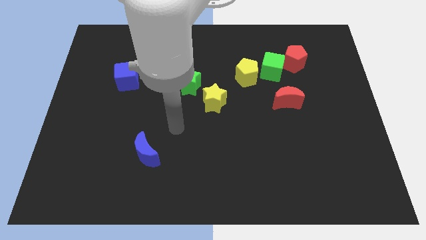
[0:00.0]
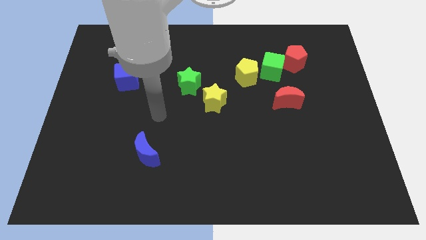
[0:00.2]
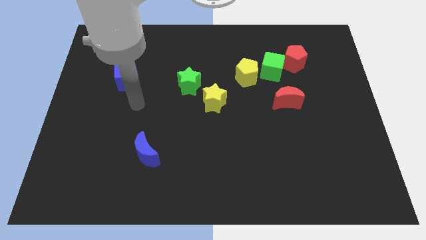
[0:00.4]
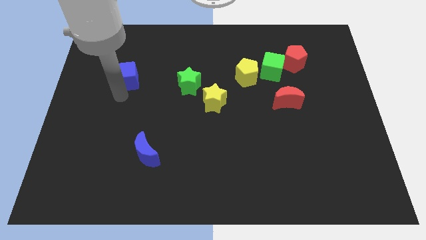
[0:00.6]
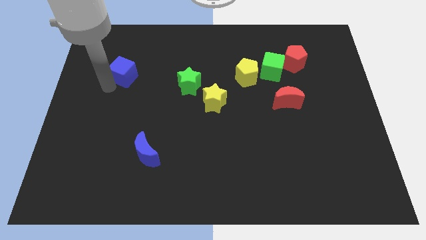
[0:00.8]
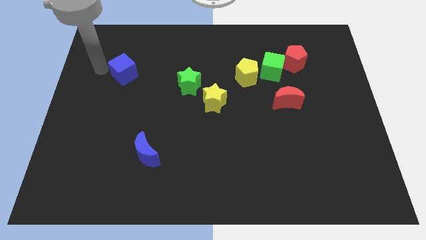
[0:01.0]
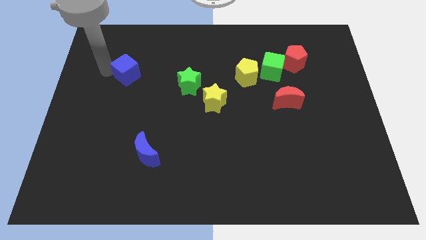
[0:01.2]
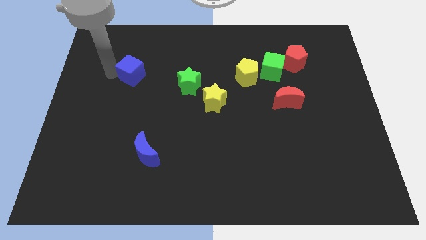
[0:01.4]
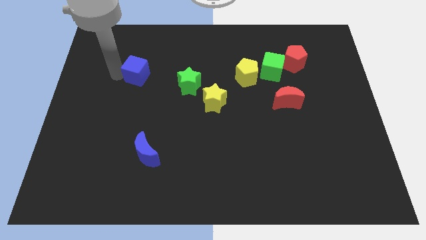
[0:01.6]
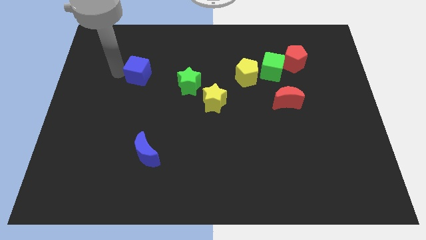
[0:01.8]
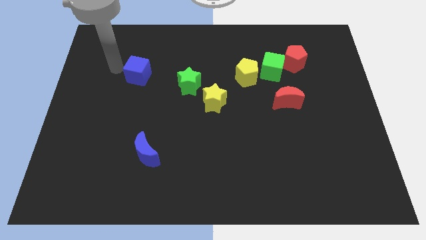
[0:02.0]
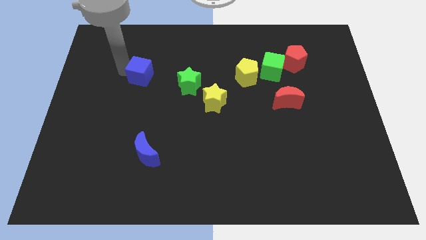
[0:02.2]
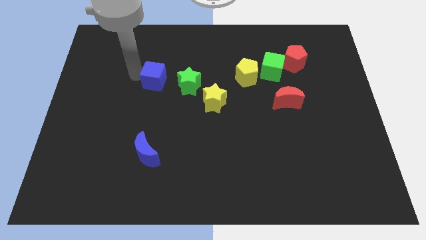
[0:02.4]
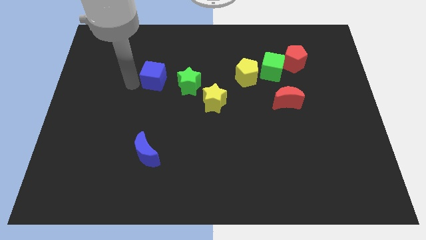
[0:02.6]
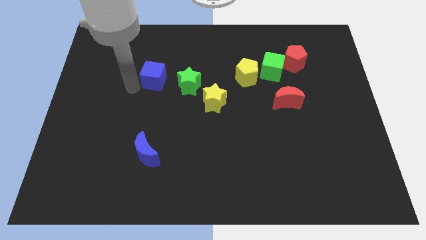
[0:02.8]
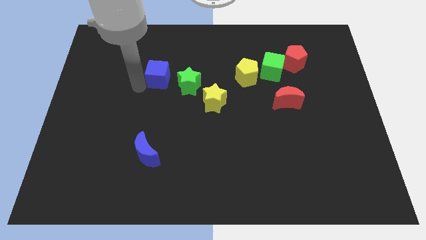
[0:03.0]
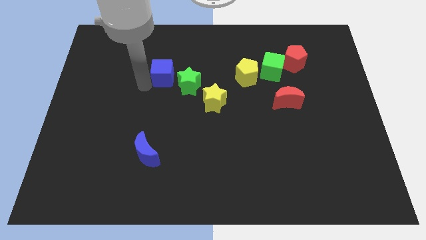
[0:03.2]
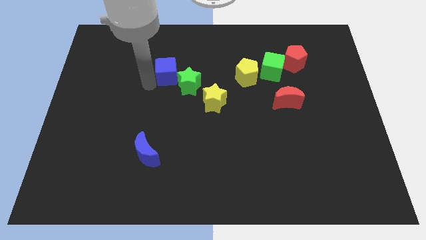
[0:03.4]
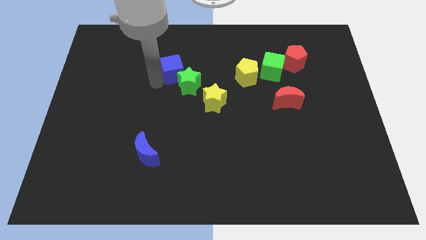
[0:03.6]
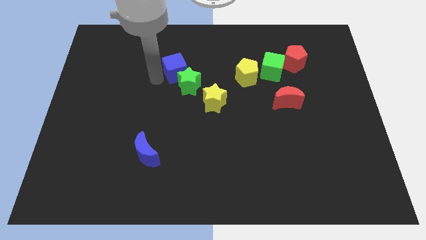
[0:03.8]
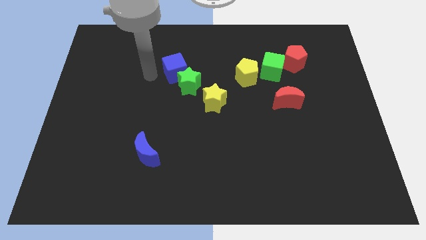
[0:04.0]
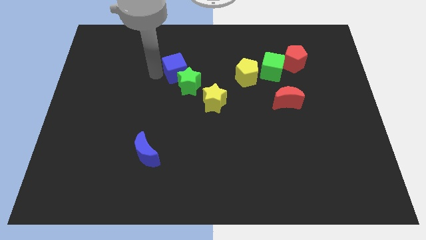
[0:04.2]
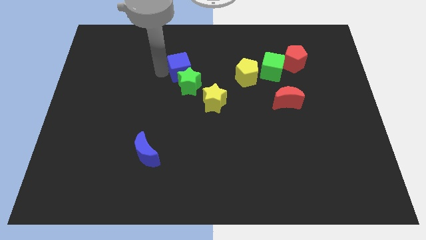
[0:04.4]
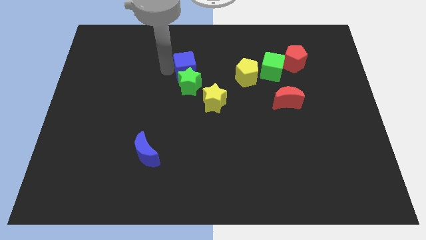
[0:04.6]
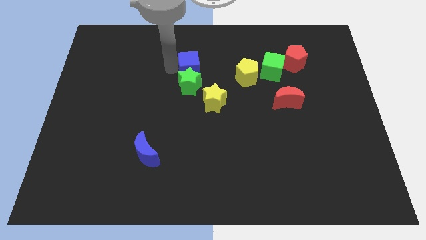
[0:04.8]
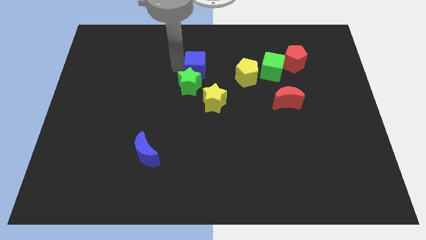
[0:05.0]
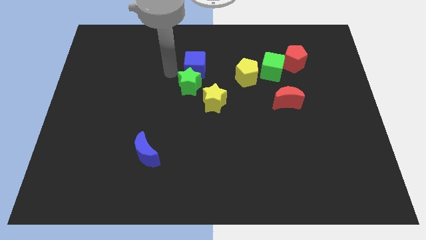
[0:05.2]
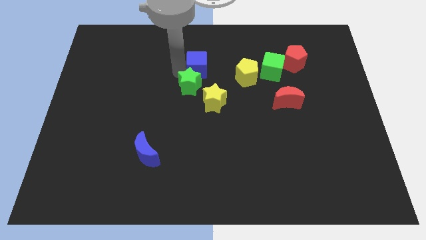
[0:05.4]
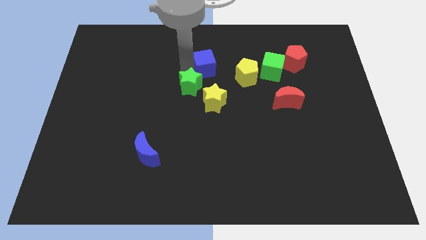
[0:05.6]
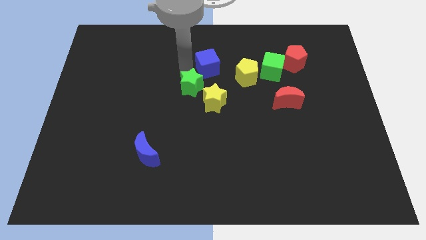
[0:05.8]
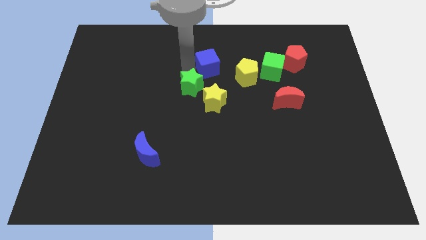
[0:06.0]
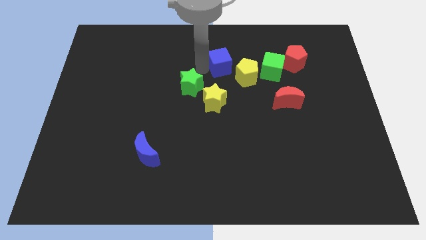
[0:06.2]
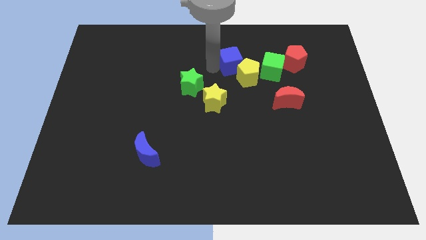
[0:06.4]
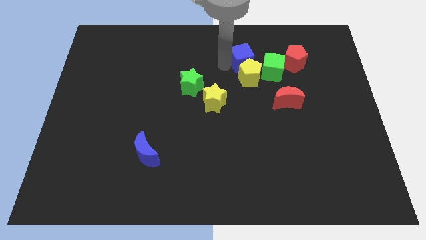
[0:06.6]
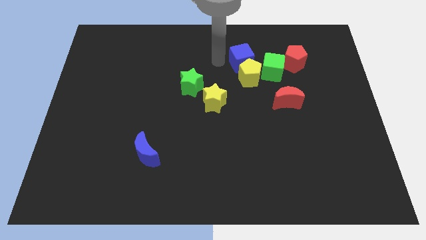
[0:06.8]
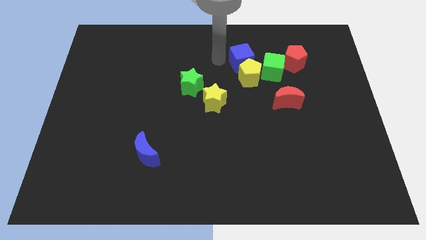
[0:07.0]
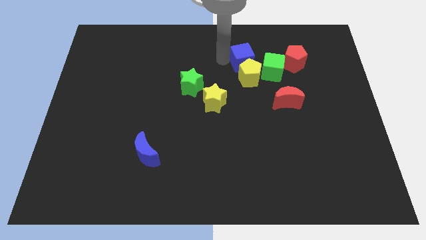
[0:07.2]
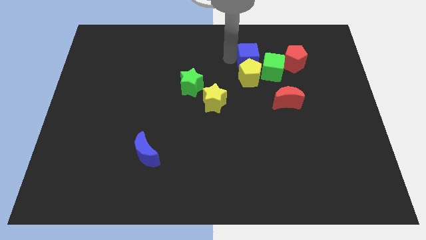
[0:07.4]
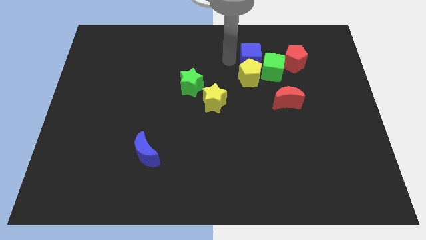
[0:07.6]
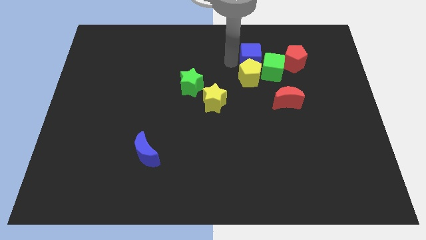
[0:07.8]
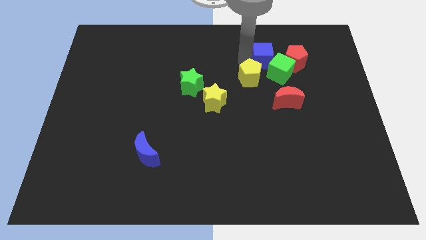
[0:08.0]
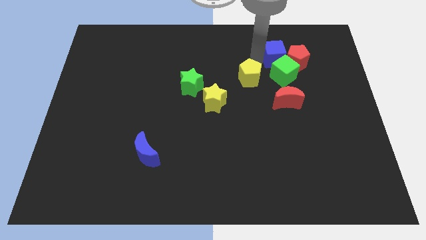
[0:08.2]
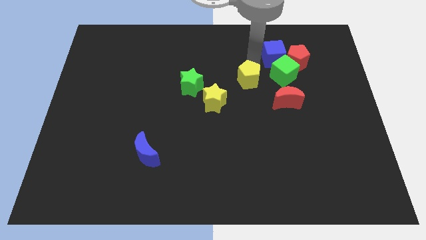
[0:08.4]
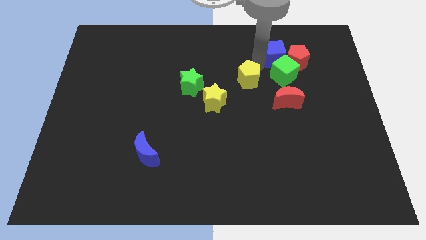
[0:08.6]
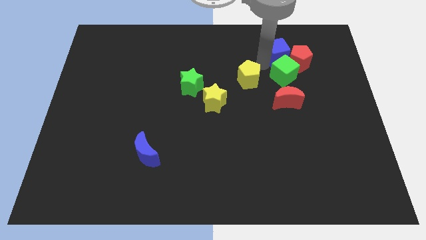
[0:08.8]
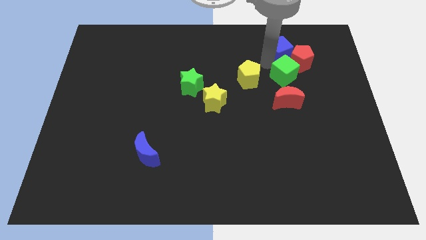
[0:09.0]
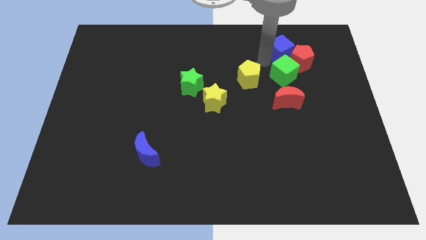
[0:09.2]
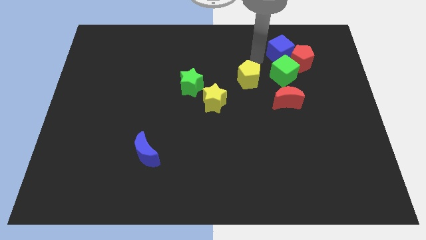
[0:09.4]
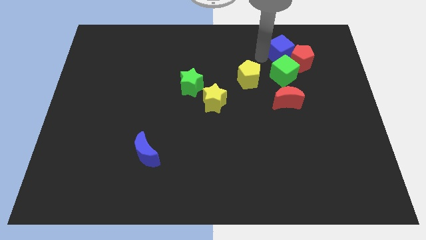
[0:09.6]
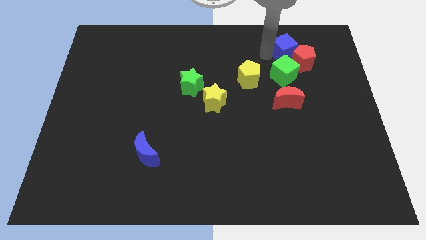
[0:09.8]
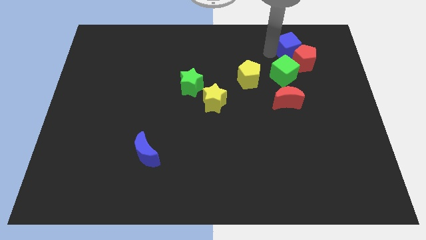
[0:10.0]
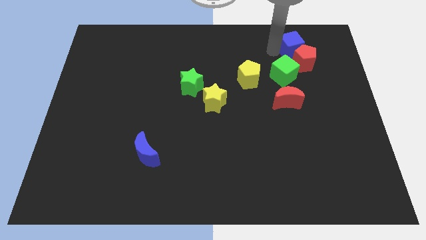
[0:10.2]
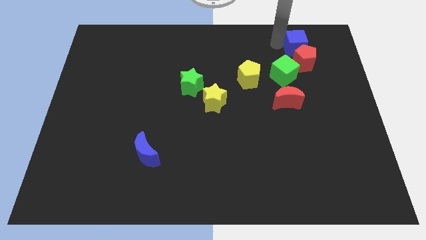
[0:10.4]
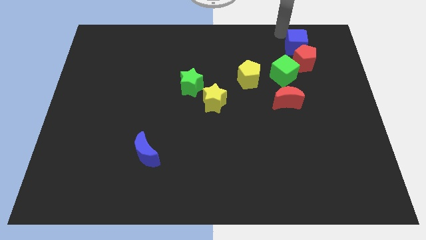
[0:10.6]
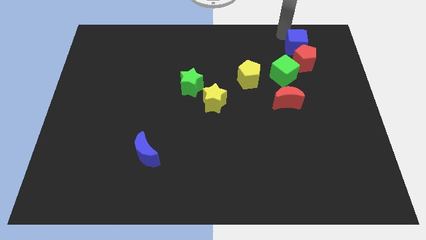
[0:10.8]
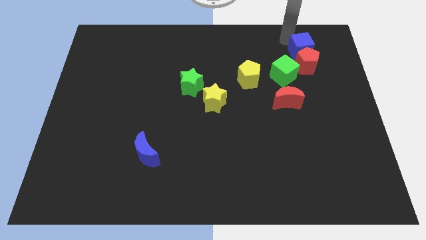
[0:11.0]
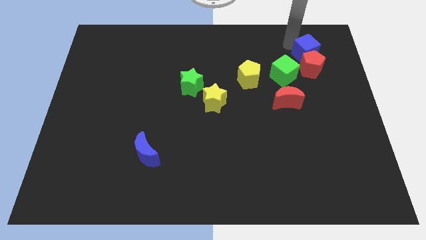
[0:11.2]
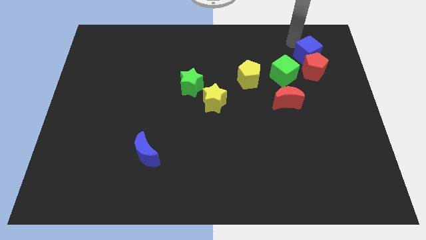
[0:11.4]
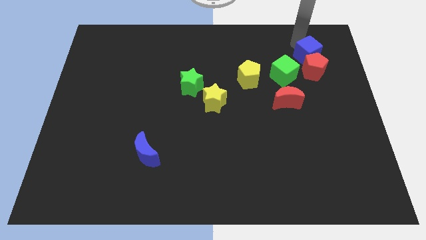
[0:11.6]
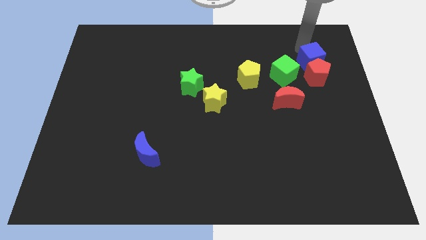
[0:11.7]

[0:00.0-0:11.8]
put the blue cube right of the green cube

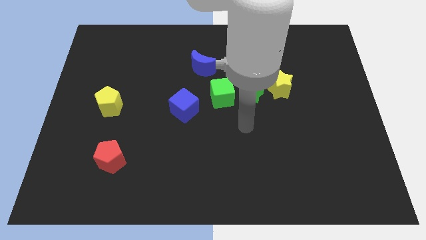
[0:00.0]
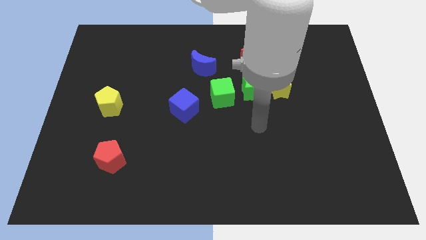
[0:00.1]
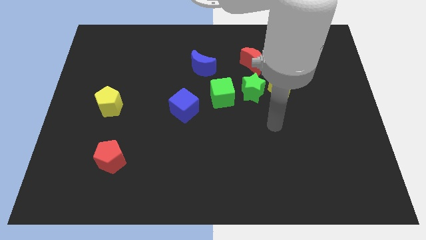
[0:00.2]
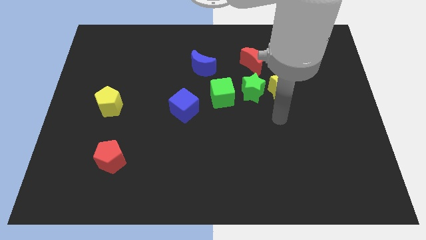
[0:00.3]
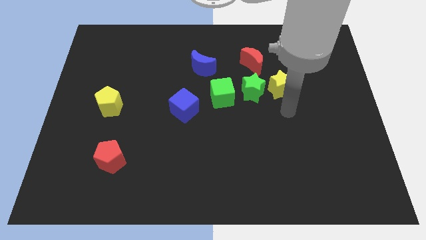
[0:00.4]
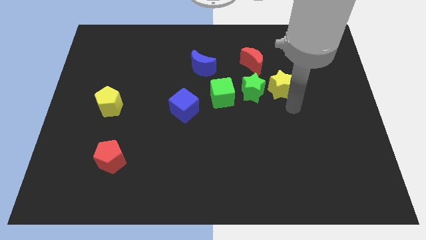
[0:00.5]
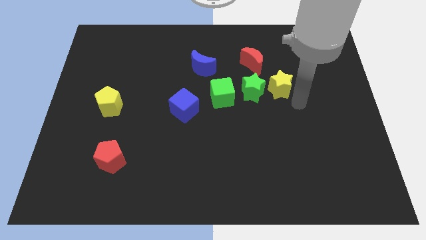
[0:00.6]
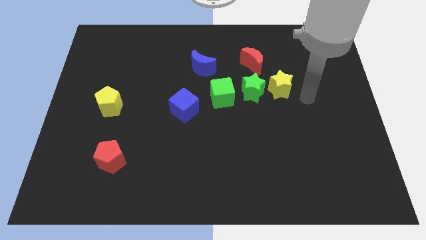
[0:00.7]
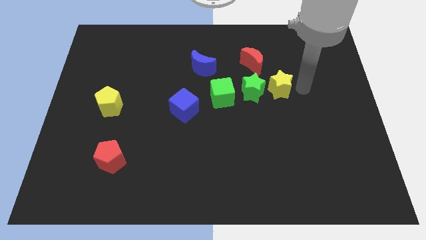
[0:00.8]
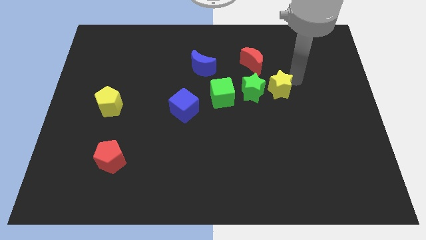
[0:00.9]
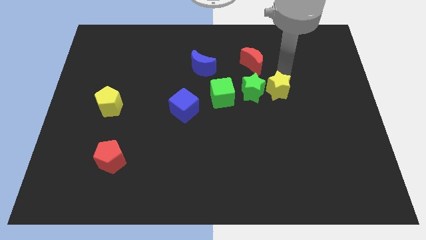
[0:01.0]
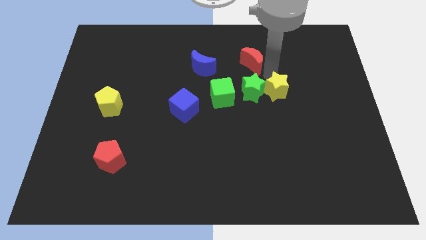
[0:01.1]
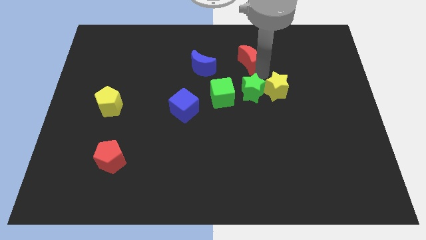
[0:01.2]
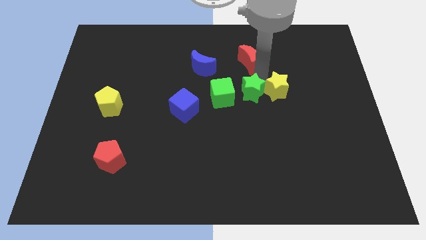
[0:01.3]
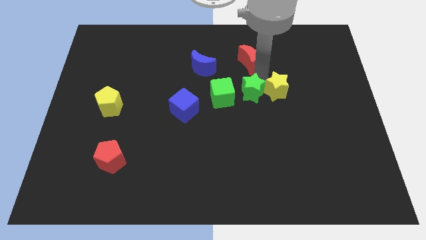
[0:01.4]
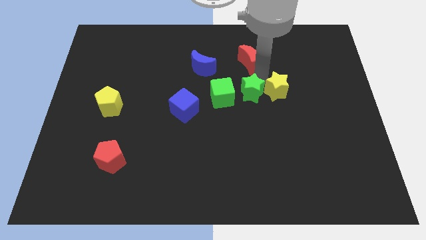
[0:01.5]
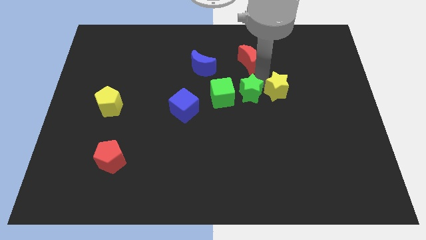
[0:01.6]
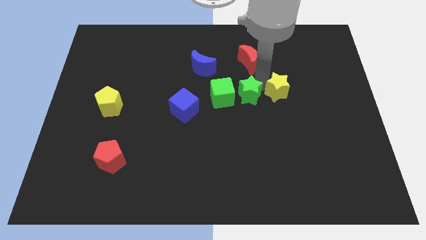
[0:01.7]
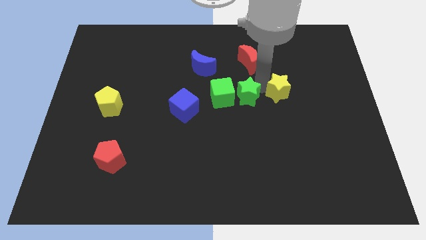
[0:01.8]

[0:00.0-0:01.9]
put the green star to the bottom right side of the green cube

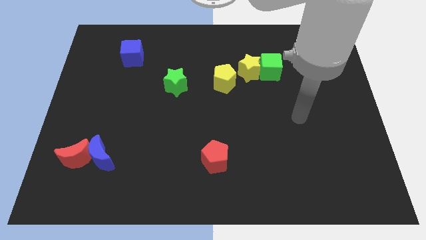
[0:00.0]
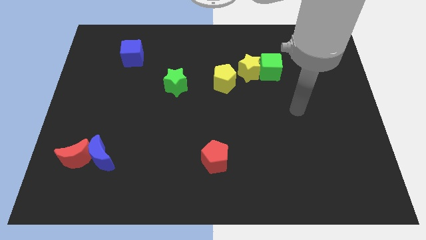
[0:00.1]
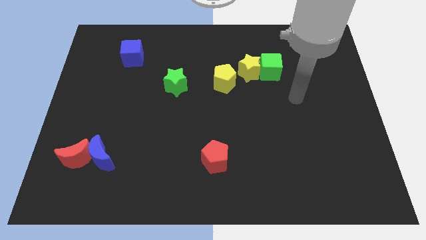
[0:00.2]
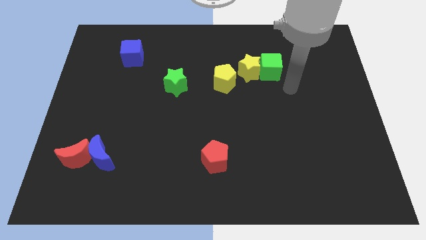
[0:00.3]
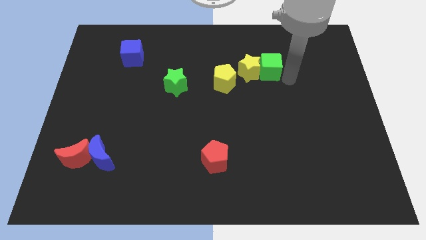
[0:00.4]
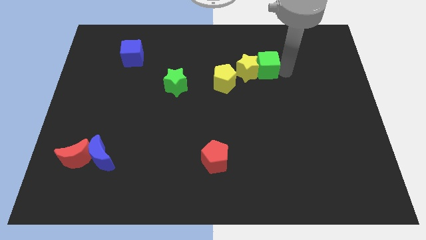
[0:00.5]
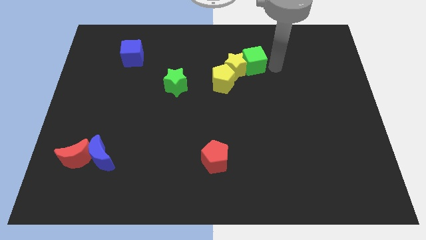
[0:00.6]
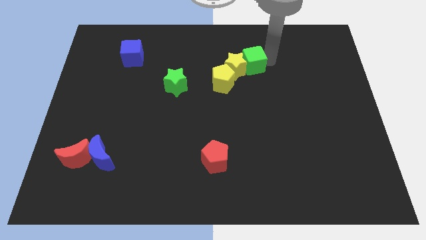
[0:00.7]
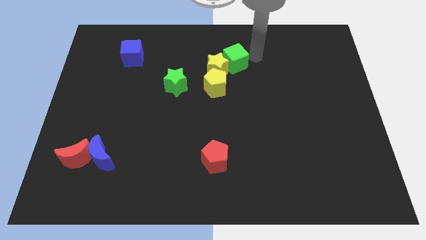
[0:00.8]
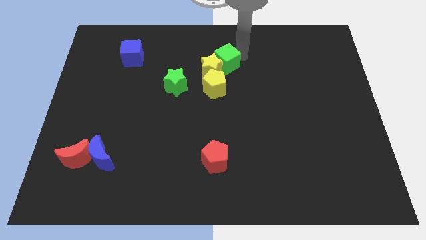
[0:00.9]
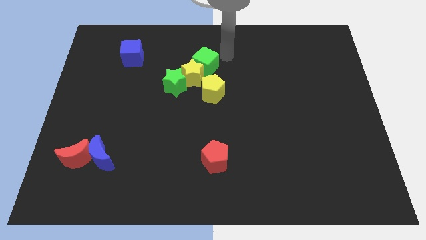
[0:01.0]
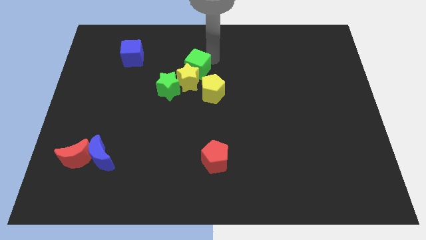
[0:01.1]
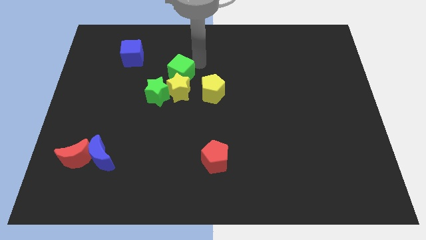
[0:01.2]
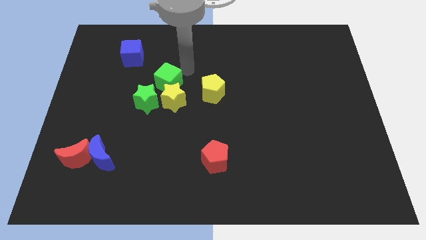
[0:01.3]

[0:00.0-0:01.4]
slide the yellow star to the bottom left side of the yellow pentagon
